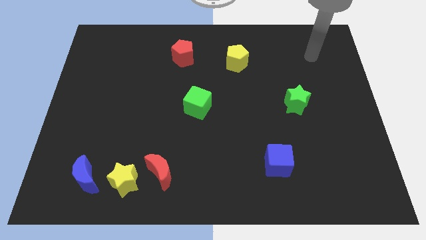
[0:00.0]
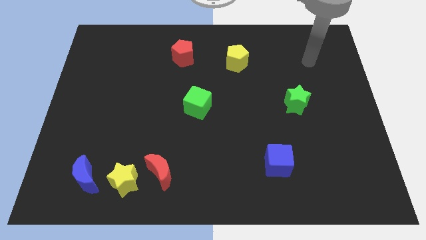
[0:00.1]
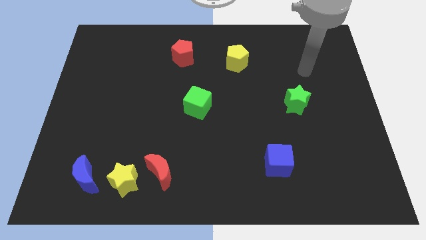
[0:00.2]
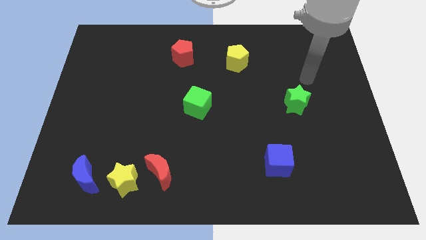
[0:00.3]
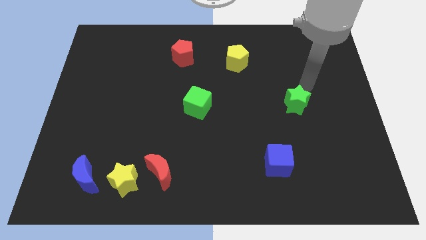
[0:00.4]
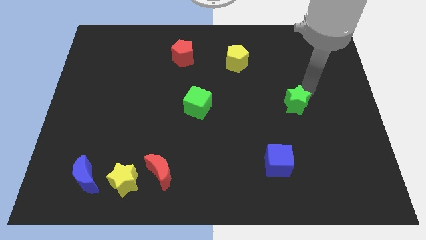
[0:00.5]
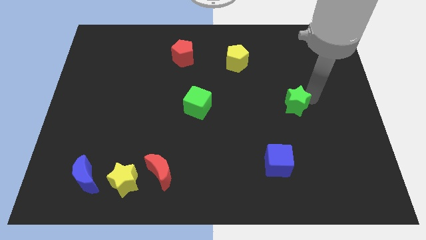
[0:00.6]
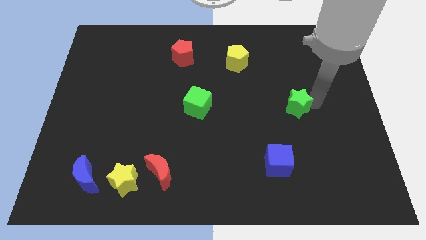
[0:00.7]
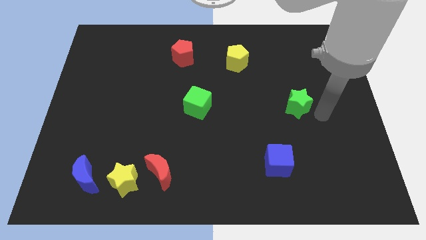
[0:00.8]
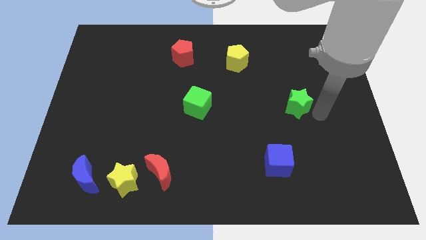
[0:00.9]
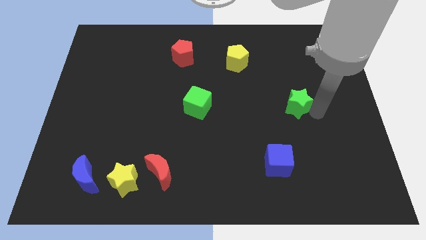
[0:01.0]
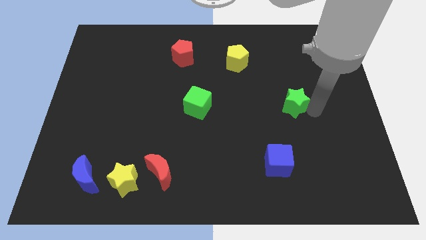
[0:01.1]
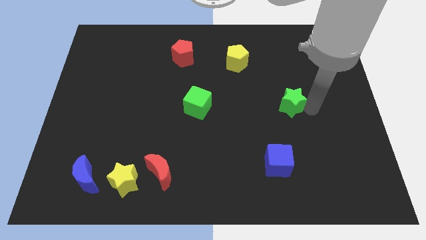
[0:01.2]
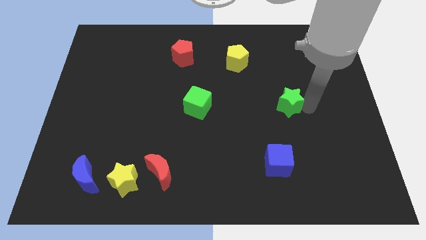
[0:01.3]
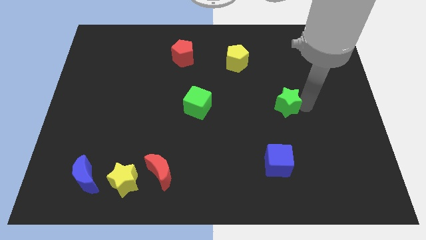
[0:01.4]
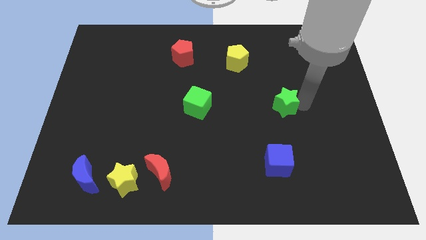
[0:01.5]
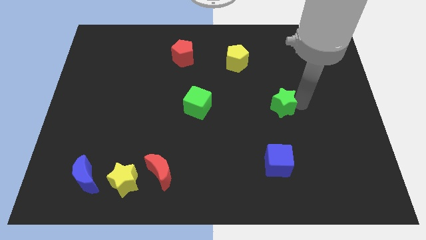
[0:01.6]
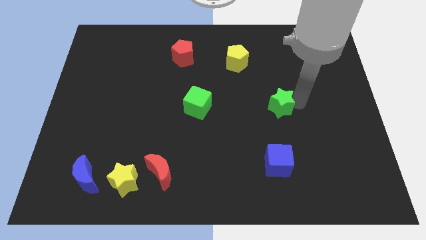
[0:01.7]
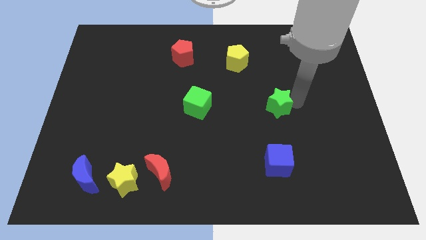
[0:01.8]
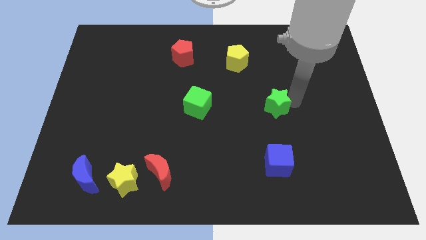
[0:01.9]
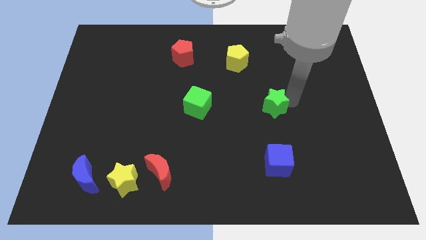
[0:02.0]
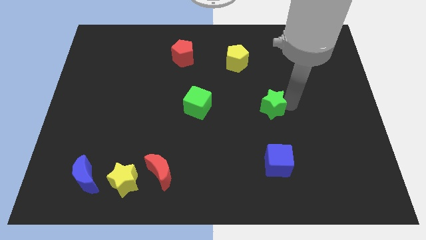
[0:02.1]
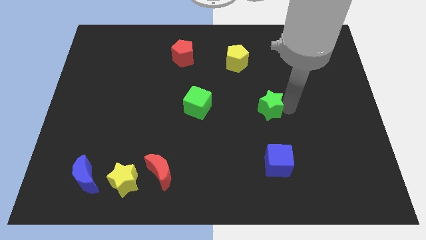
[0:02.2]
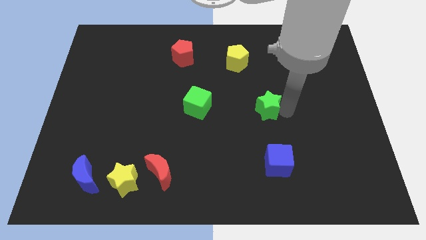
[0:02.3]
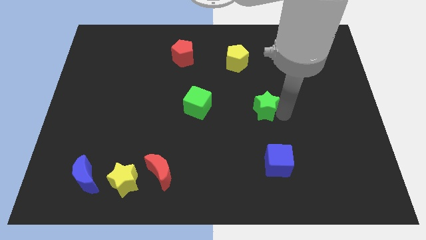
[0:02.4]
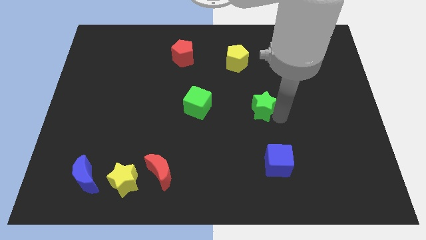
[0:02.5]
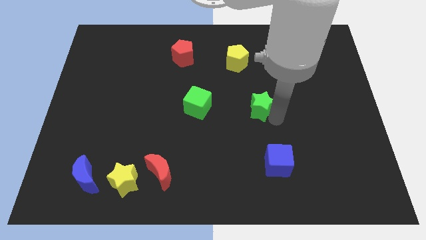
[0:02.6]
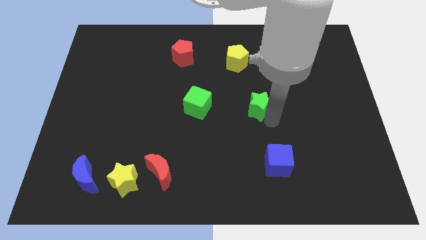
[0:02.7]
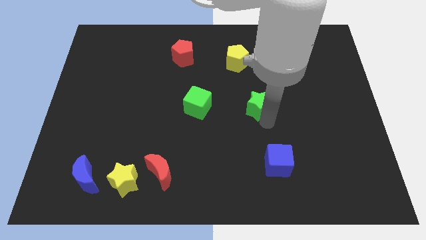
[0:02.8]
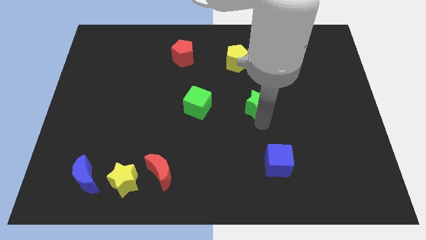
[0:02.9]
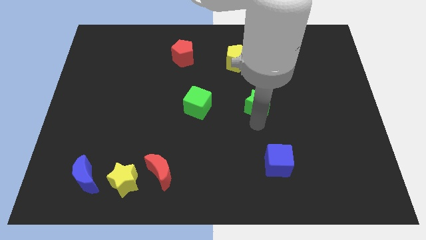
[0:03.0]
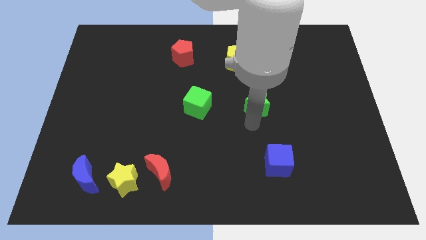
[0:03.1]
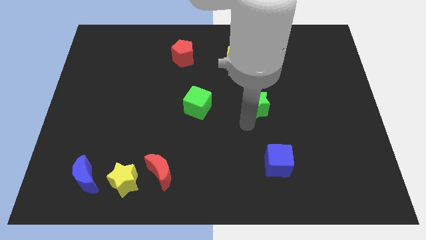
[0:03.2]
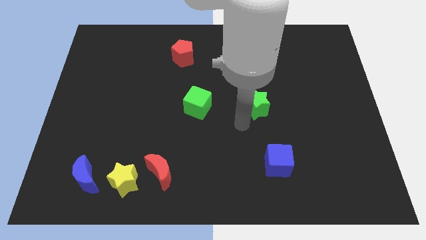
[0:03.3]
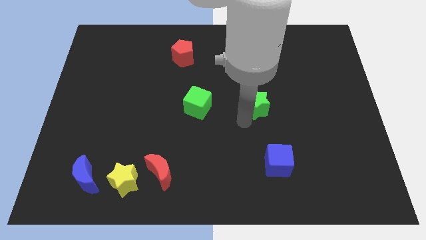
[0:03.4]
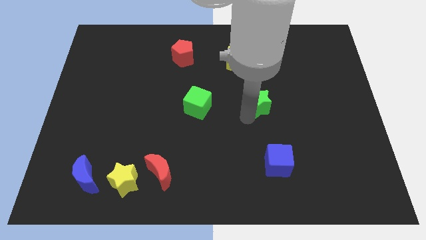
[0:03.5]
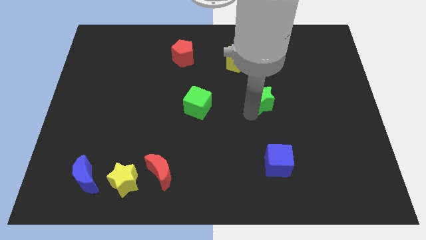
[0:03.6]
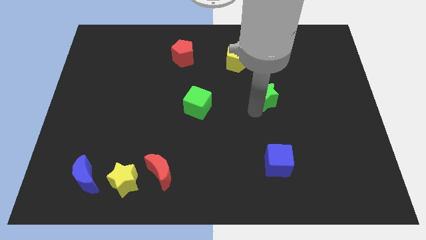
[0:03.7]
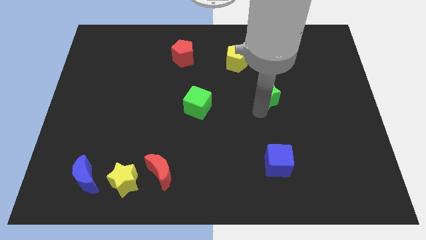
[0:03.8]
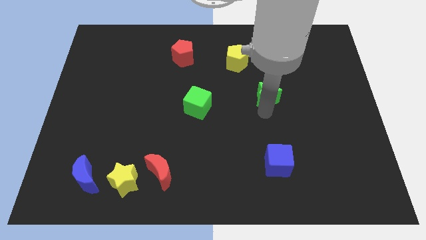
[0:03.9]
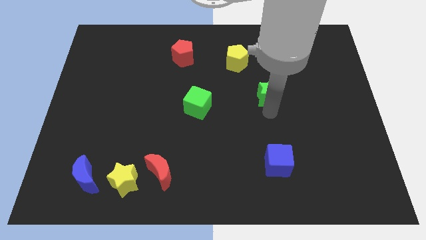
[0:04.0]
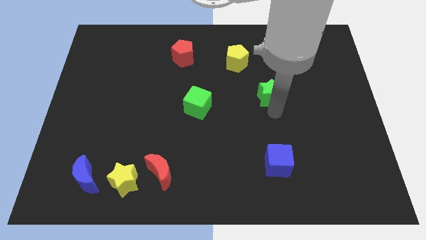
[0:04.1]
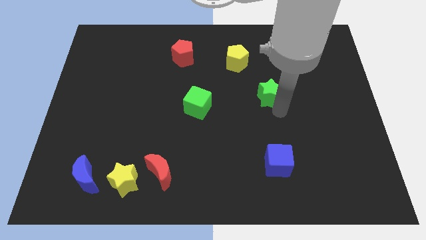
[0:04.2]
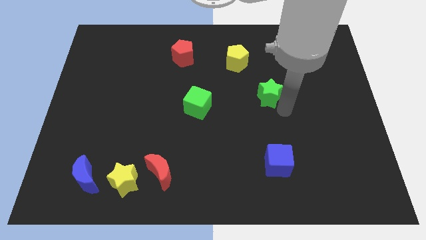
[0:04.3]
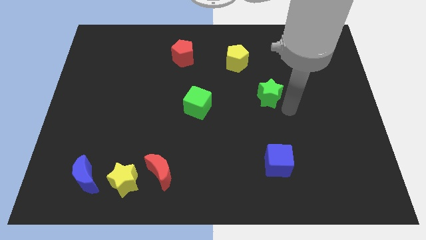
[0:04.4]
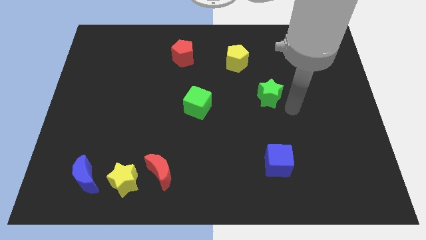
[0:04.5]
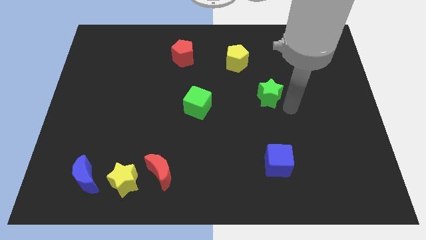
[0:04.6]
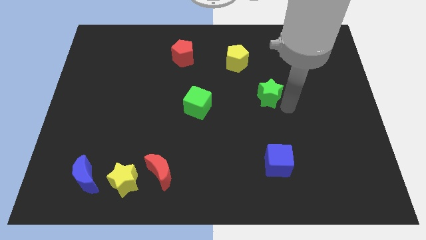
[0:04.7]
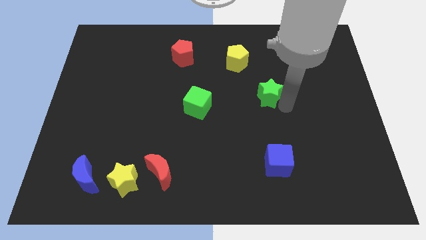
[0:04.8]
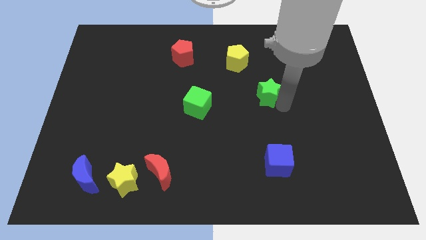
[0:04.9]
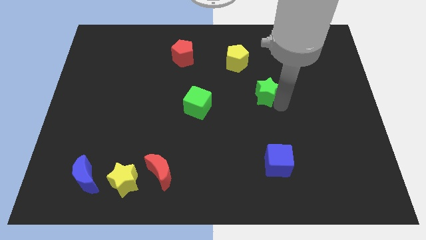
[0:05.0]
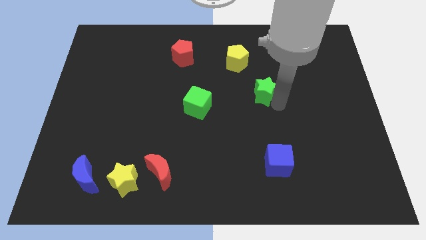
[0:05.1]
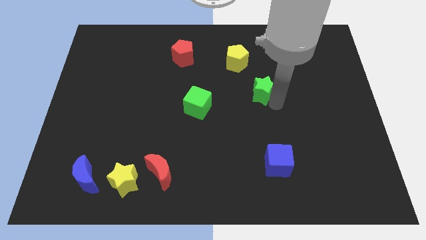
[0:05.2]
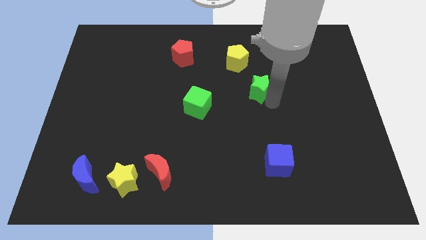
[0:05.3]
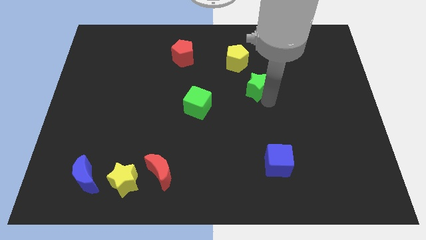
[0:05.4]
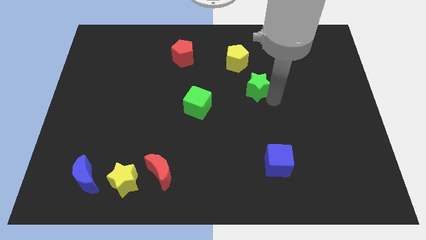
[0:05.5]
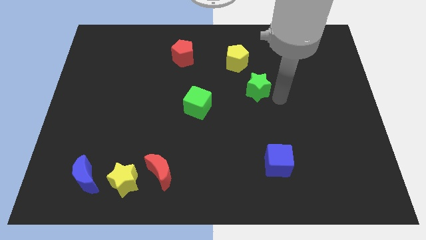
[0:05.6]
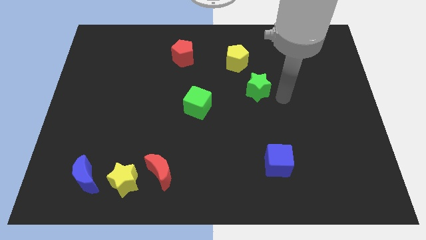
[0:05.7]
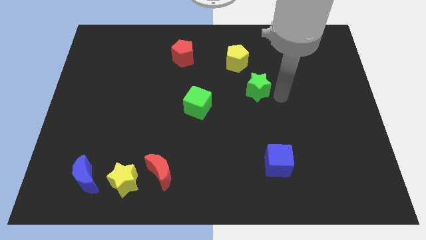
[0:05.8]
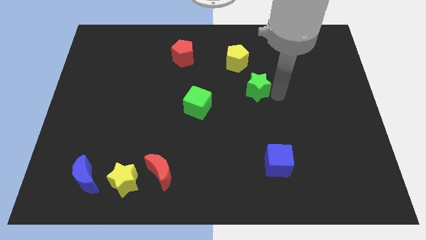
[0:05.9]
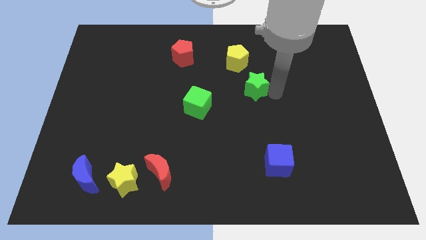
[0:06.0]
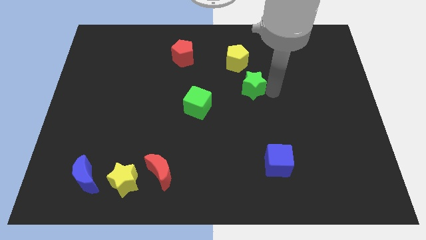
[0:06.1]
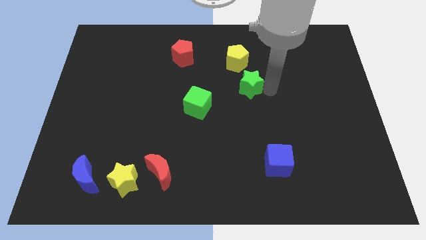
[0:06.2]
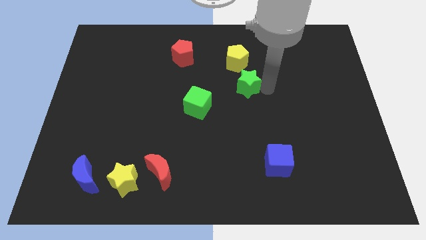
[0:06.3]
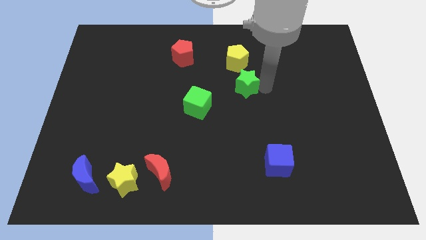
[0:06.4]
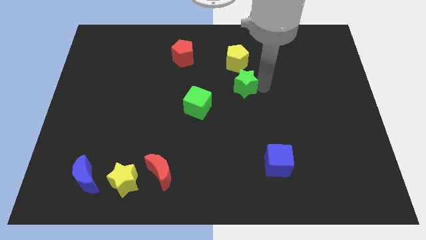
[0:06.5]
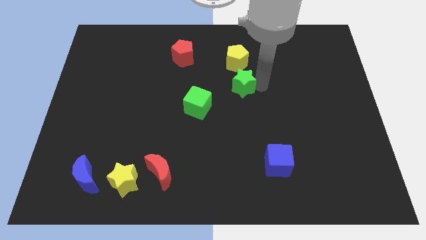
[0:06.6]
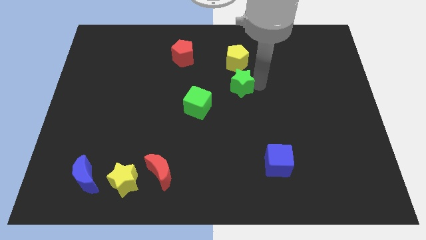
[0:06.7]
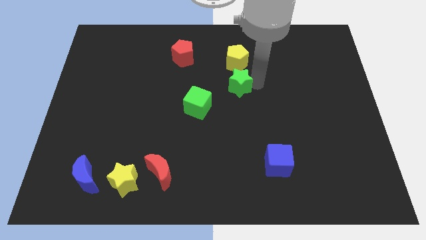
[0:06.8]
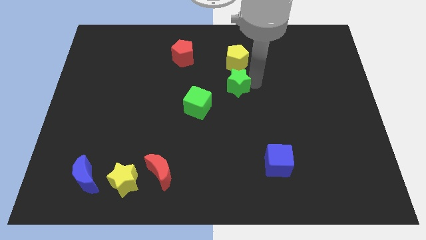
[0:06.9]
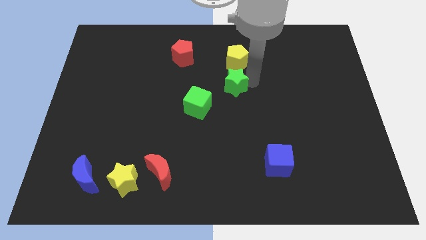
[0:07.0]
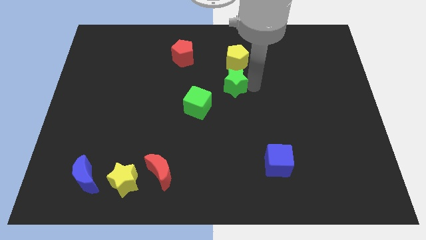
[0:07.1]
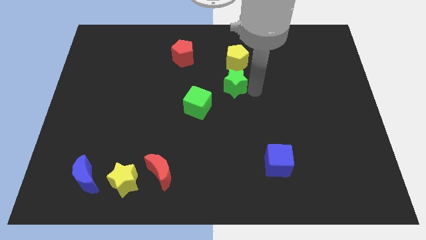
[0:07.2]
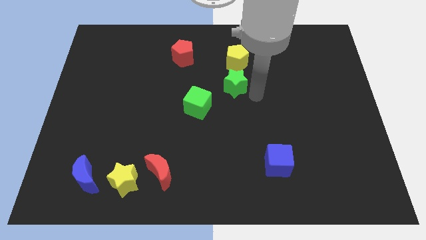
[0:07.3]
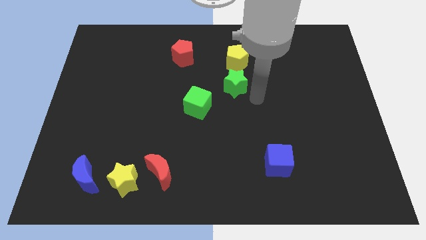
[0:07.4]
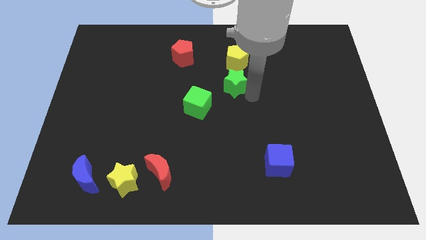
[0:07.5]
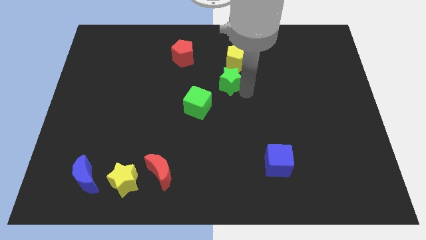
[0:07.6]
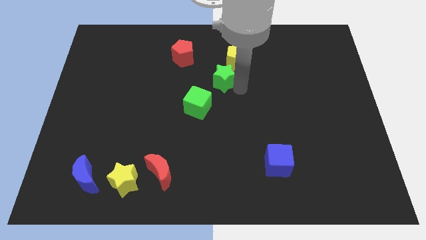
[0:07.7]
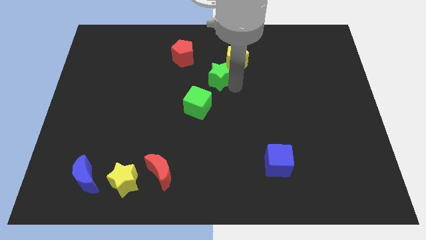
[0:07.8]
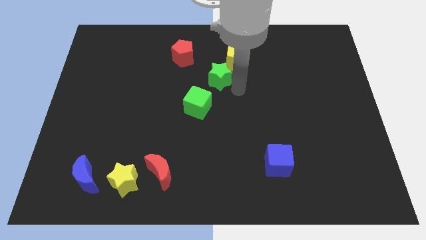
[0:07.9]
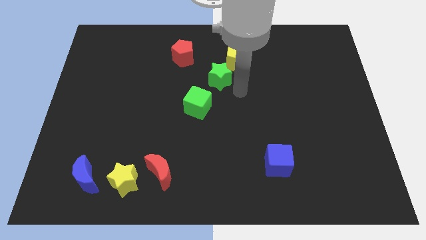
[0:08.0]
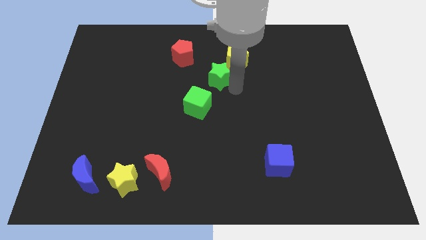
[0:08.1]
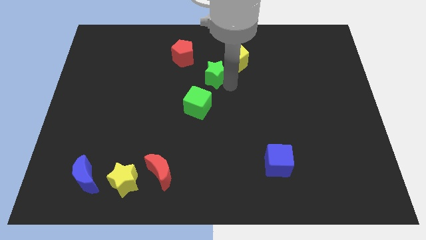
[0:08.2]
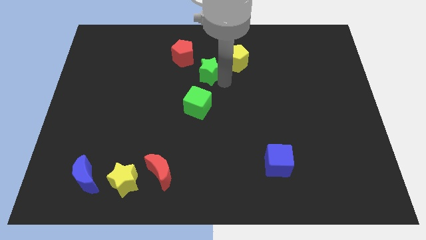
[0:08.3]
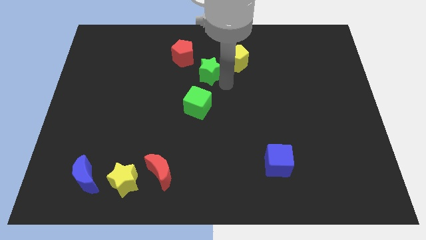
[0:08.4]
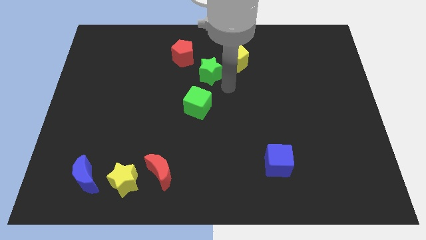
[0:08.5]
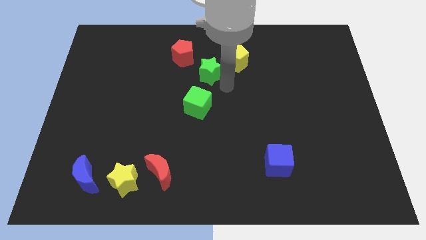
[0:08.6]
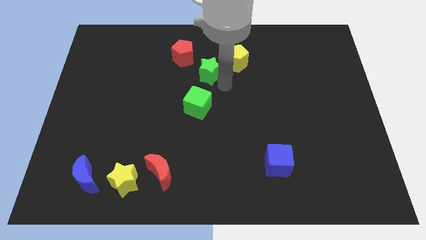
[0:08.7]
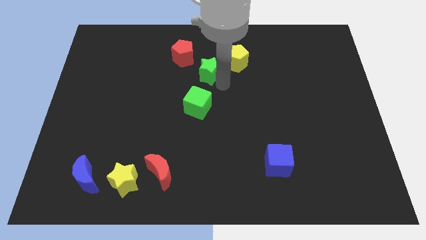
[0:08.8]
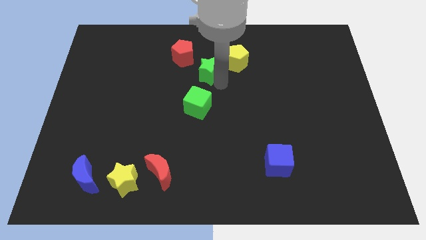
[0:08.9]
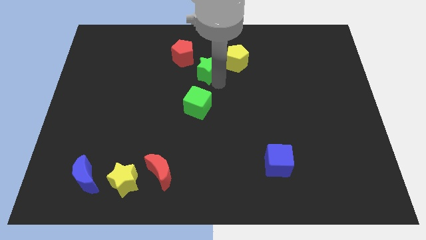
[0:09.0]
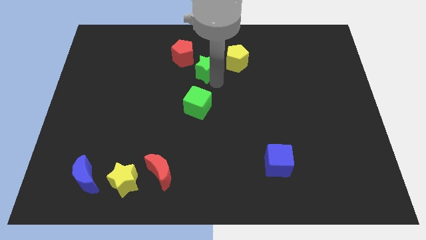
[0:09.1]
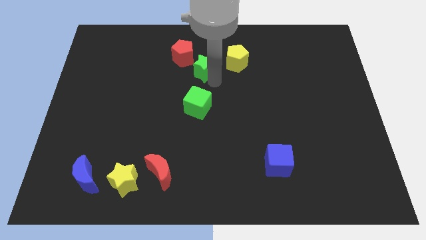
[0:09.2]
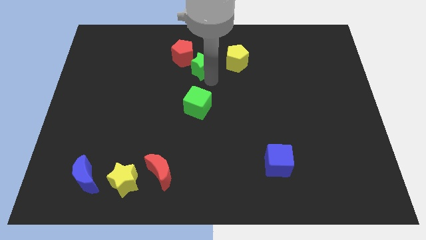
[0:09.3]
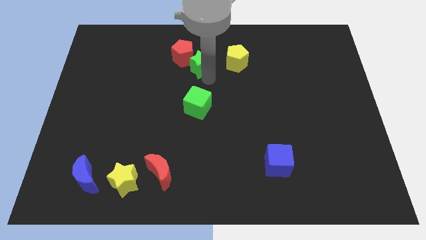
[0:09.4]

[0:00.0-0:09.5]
push the green star close to the red pentagon
